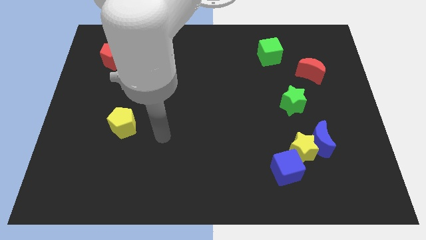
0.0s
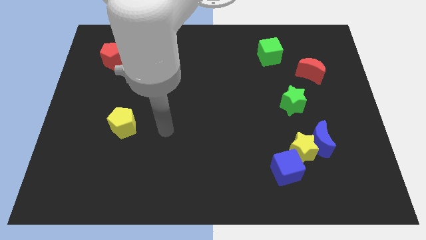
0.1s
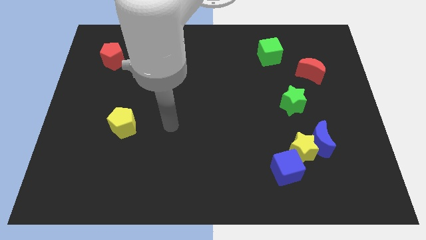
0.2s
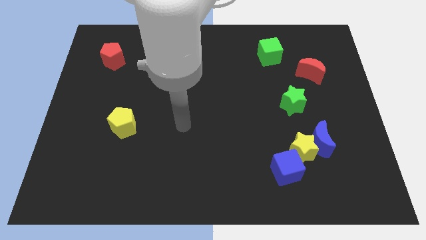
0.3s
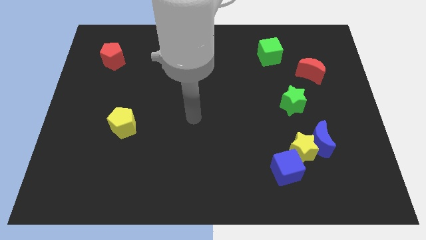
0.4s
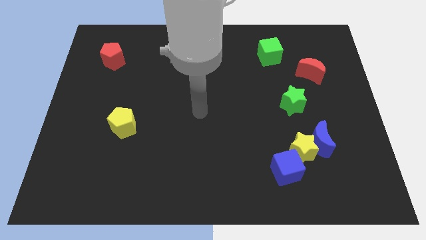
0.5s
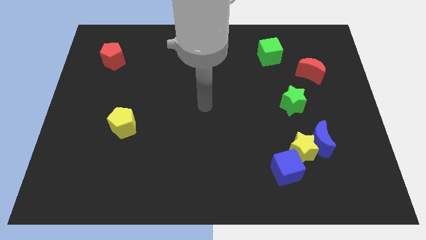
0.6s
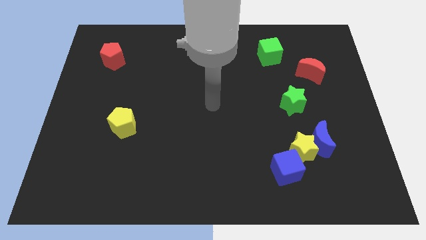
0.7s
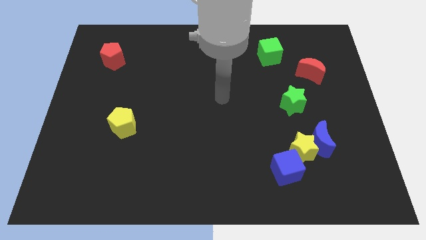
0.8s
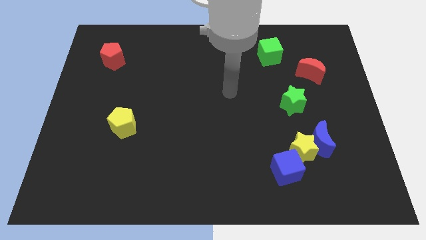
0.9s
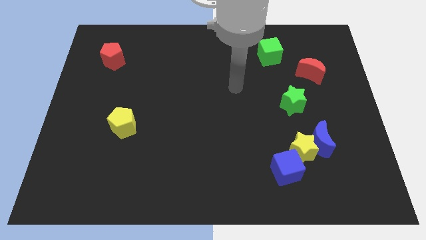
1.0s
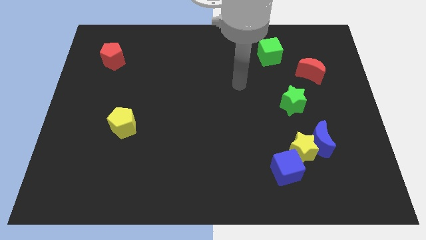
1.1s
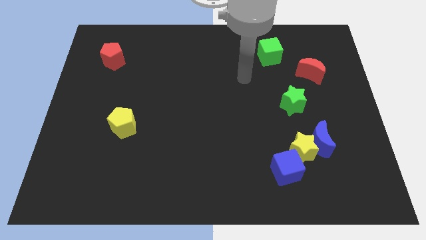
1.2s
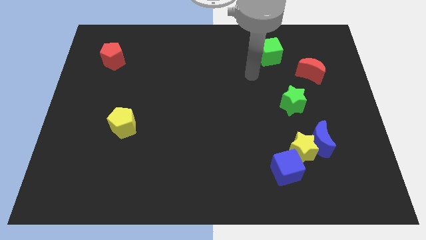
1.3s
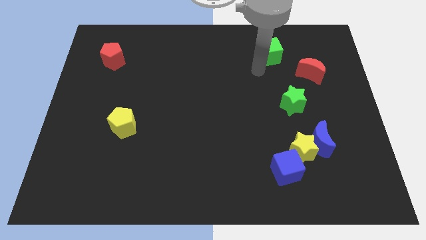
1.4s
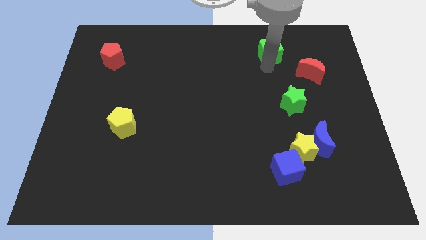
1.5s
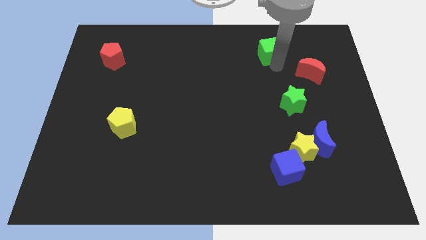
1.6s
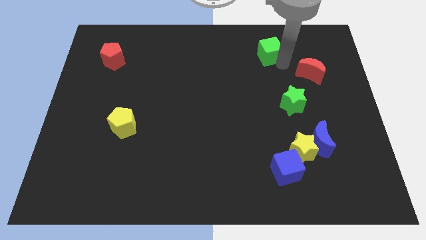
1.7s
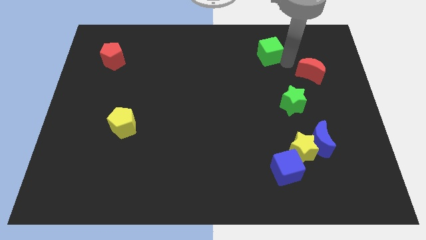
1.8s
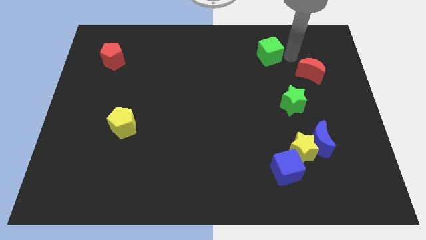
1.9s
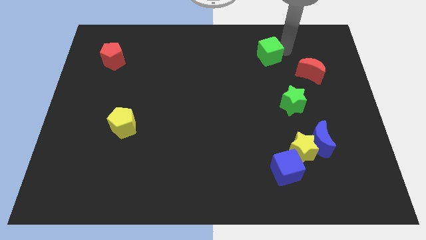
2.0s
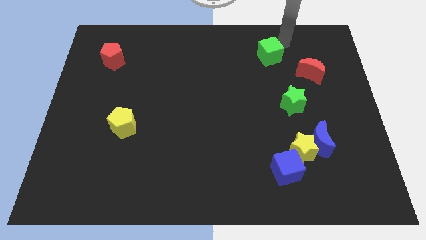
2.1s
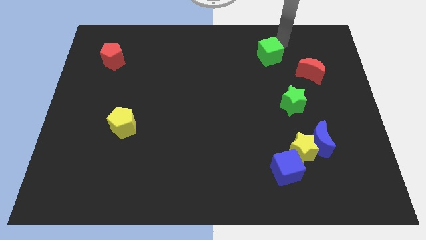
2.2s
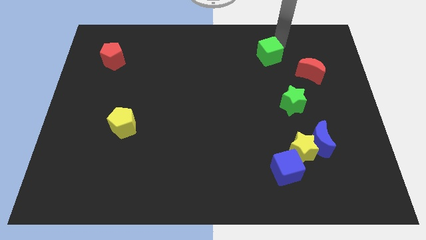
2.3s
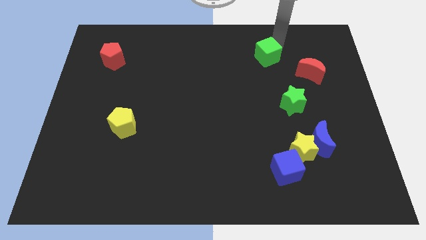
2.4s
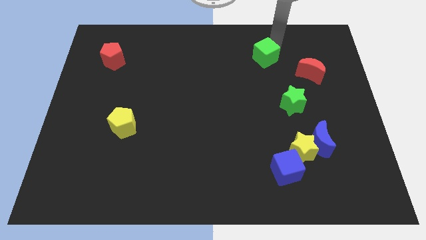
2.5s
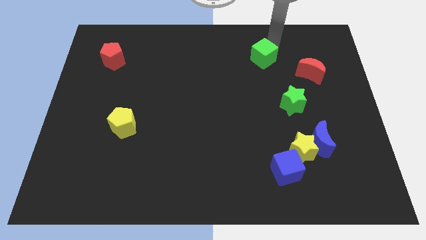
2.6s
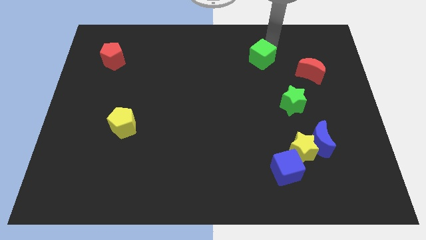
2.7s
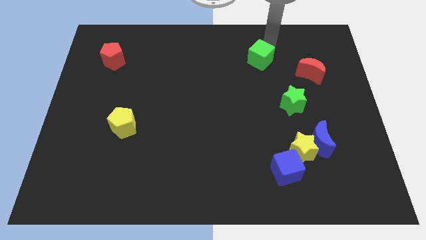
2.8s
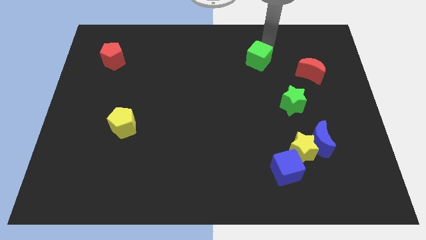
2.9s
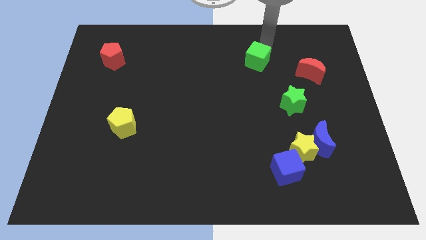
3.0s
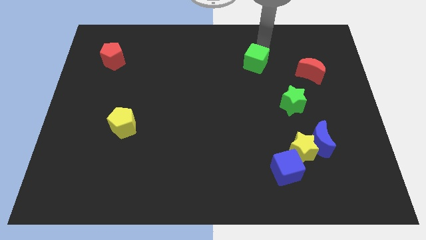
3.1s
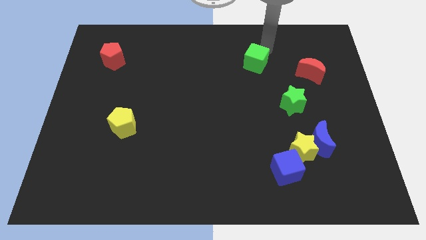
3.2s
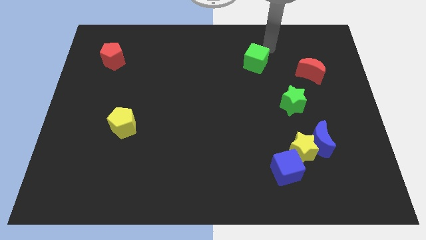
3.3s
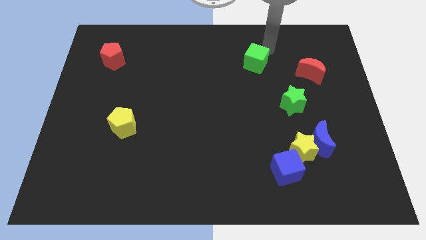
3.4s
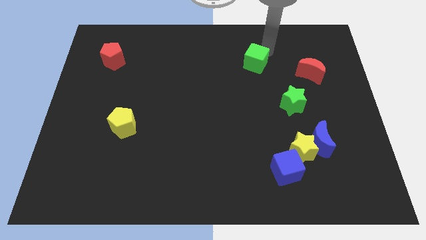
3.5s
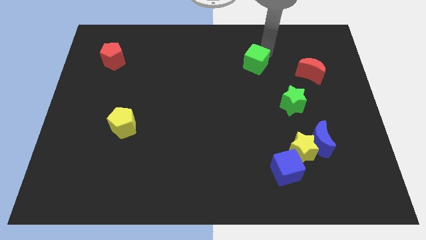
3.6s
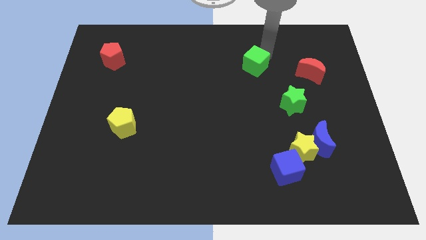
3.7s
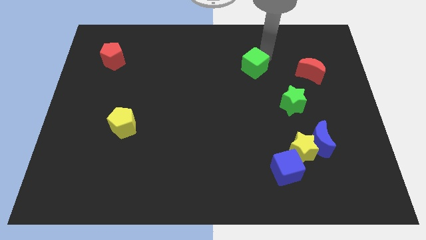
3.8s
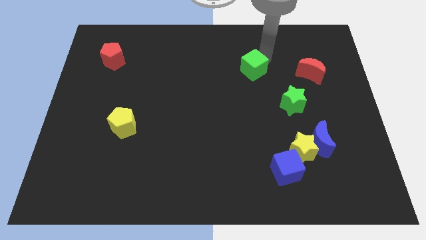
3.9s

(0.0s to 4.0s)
push the green cube somewhat downwards and then to the left

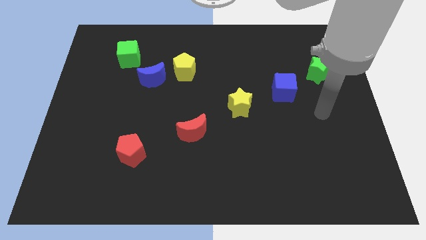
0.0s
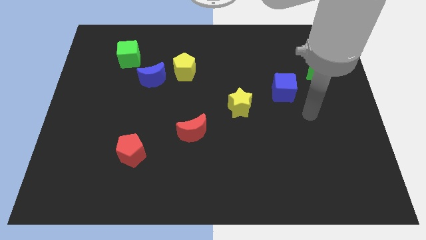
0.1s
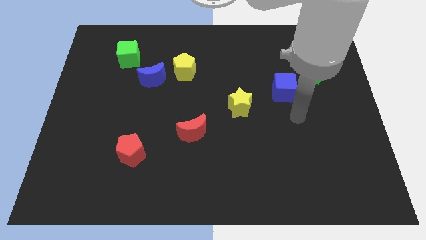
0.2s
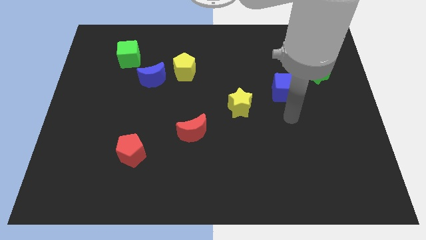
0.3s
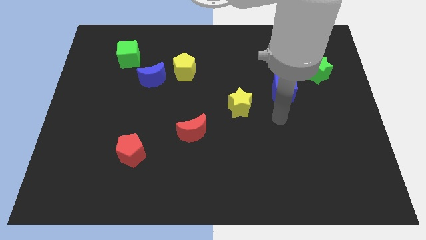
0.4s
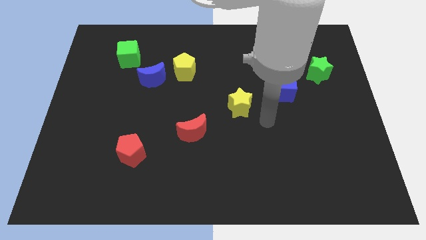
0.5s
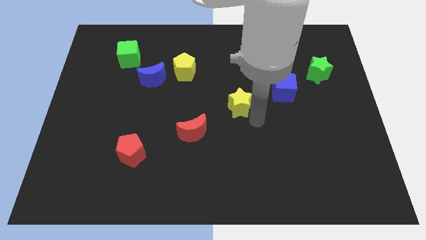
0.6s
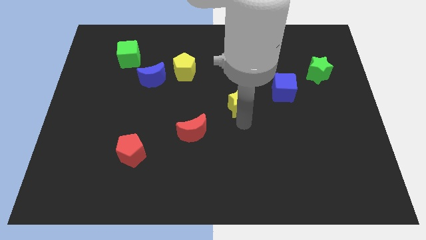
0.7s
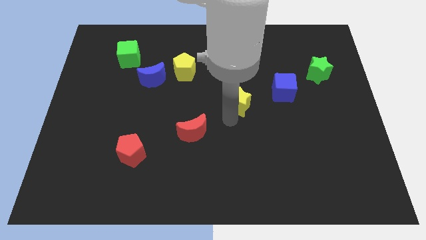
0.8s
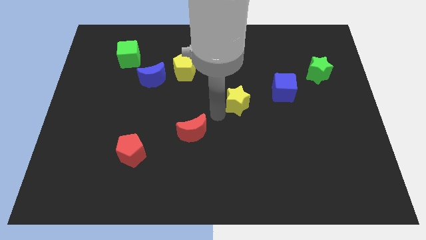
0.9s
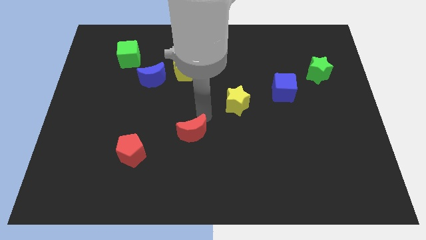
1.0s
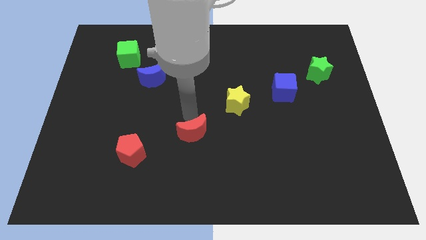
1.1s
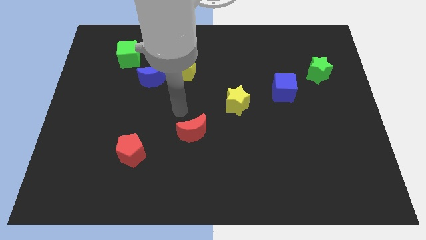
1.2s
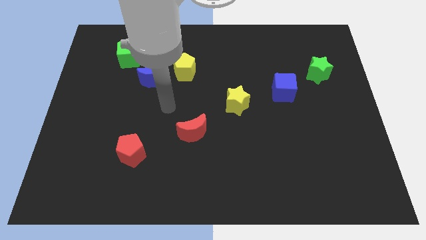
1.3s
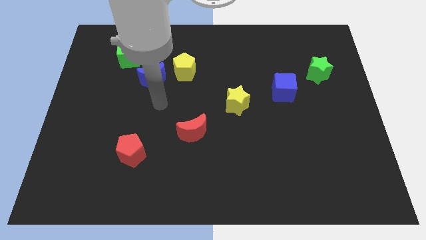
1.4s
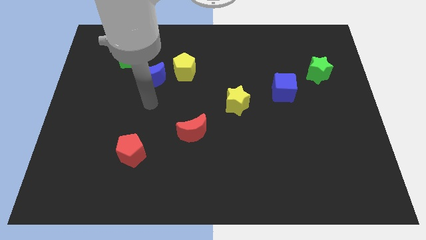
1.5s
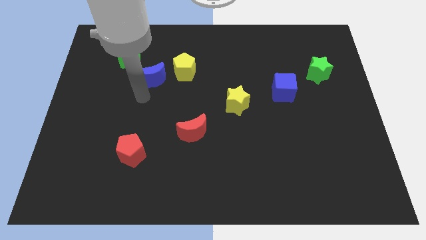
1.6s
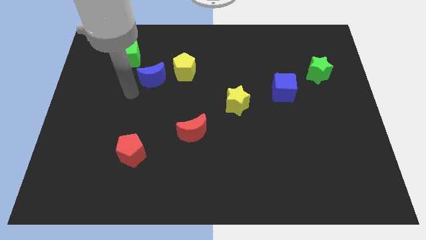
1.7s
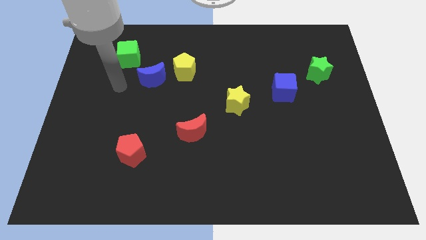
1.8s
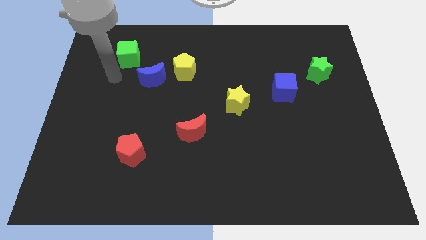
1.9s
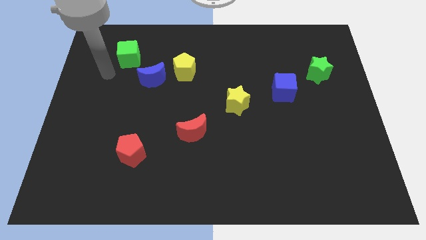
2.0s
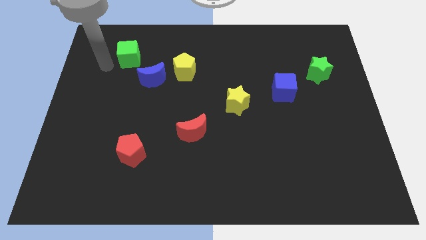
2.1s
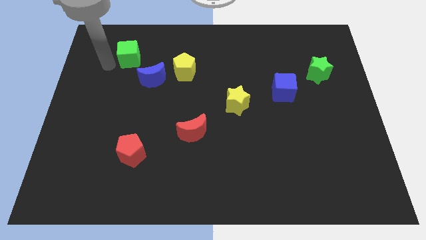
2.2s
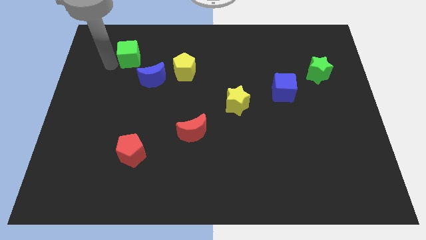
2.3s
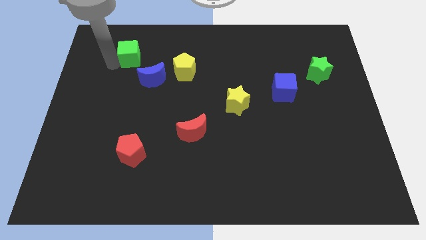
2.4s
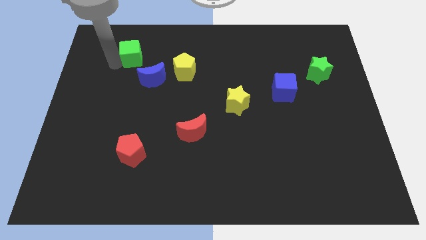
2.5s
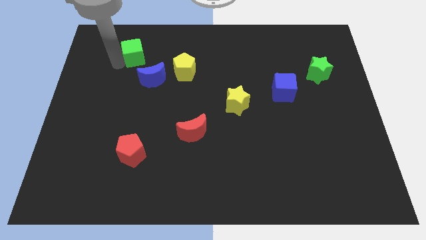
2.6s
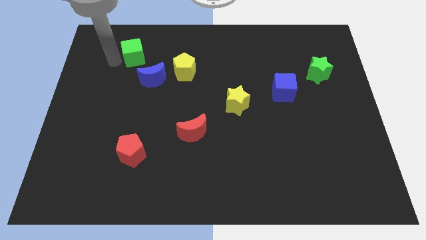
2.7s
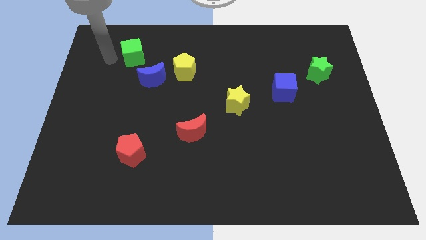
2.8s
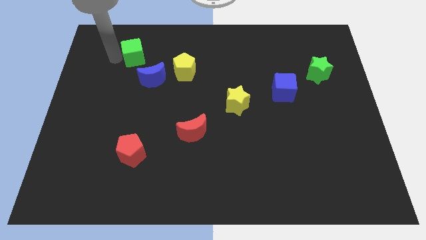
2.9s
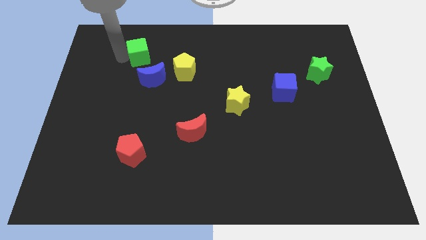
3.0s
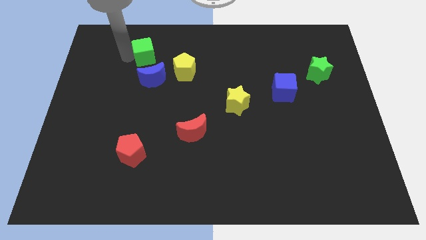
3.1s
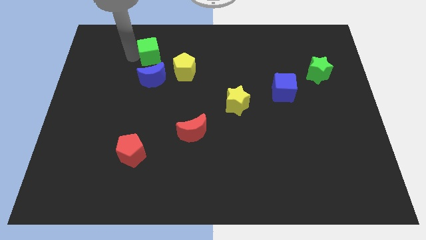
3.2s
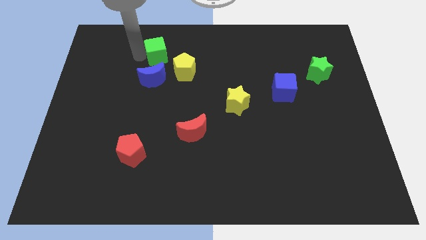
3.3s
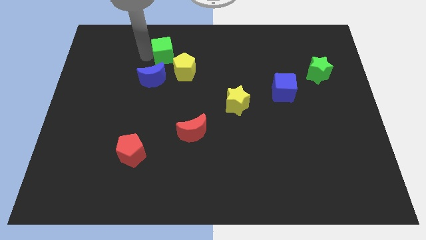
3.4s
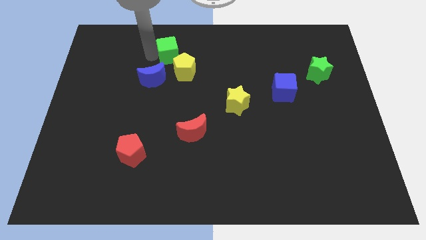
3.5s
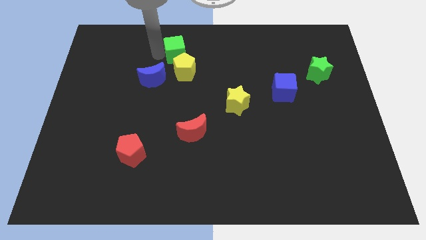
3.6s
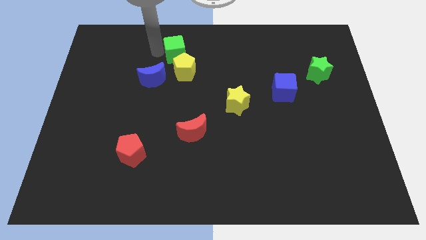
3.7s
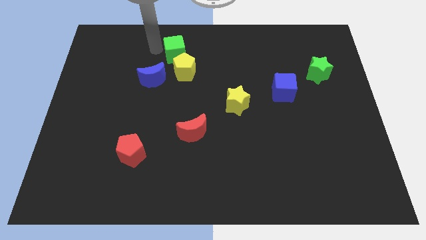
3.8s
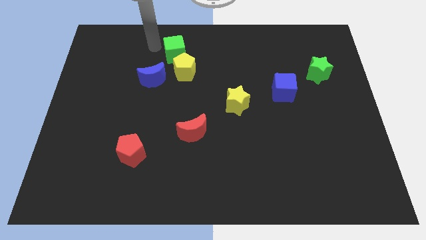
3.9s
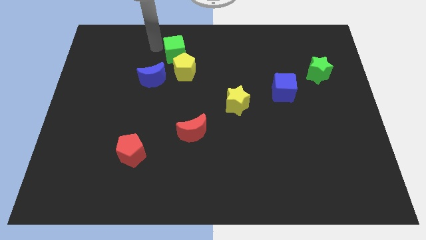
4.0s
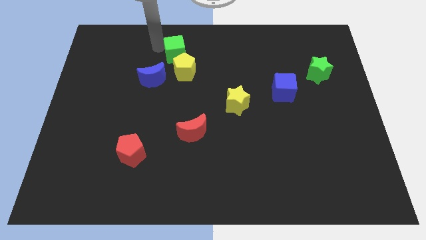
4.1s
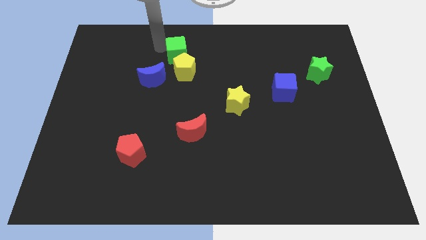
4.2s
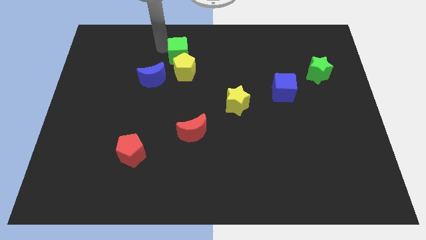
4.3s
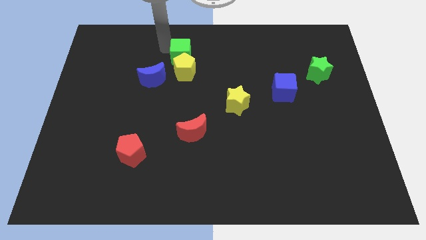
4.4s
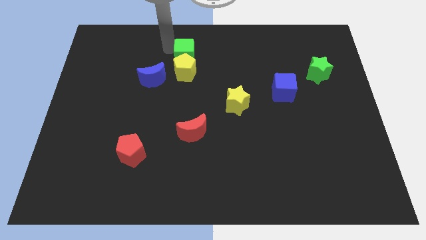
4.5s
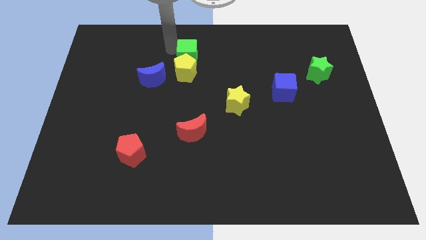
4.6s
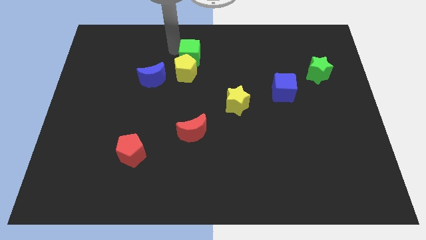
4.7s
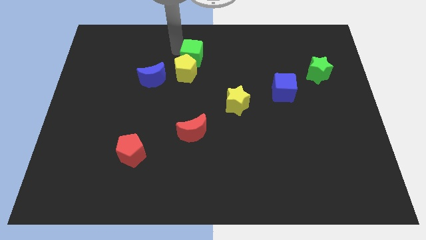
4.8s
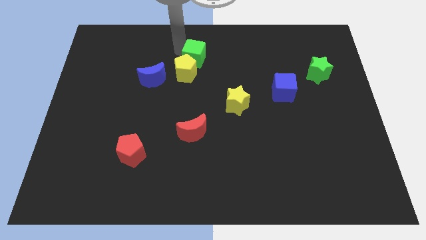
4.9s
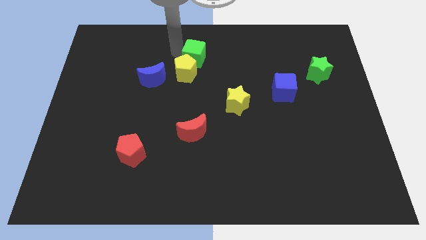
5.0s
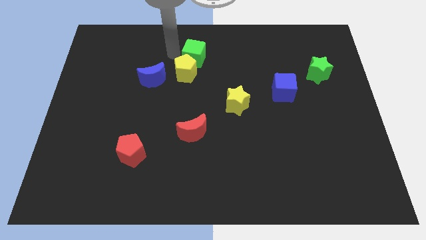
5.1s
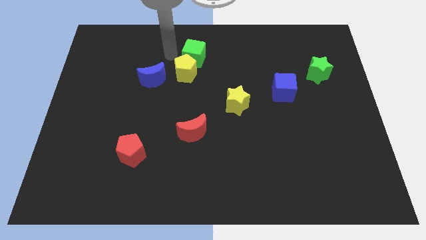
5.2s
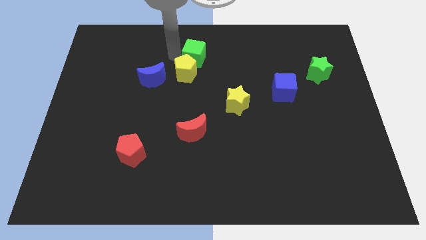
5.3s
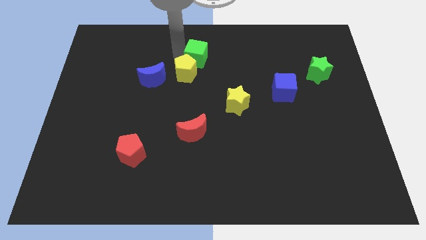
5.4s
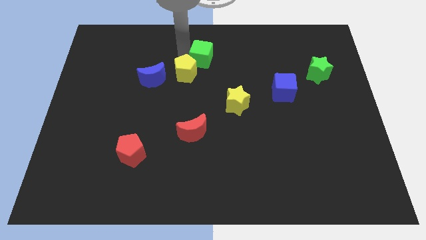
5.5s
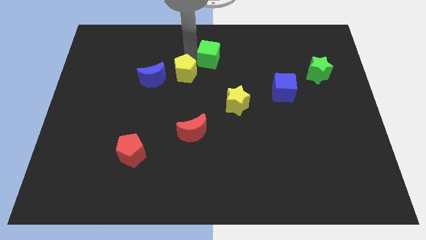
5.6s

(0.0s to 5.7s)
move the green cube right
